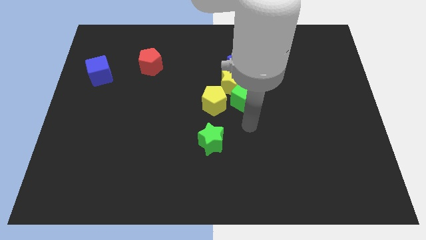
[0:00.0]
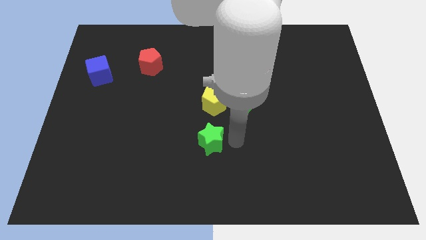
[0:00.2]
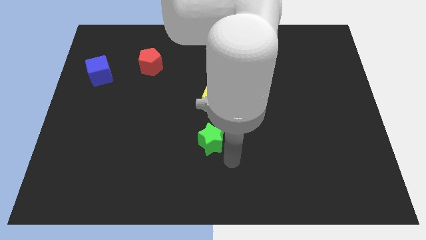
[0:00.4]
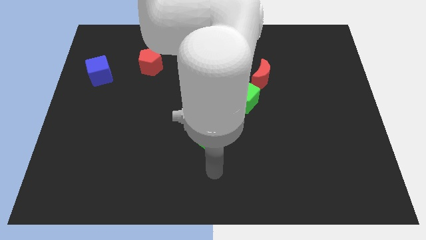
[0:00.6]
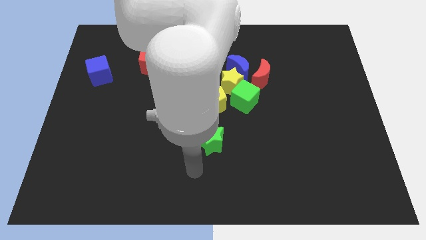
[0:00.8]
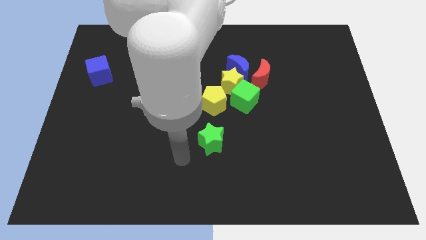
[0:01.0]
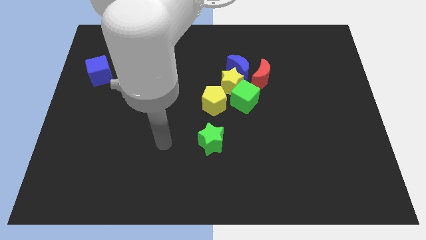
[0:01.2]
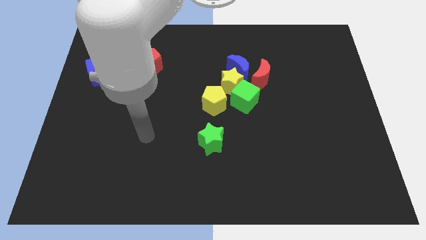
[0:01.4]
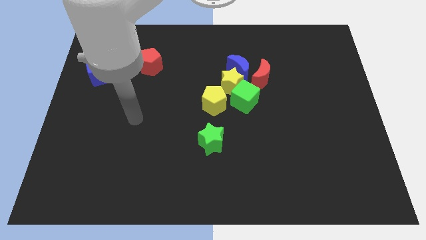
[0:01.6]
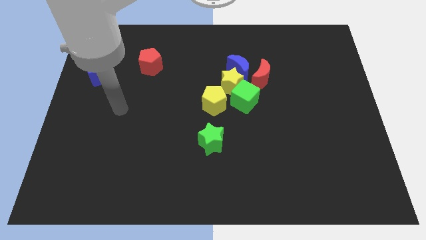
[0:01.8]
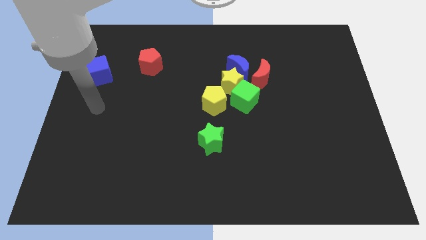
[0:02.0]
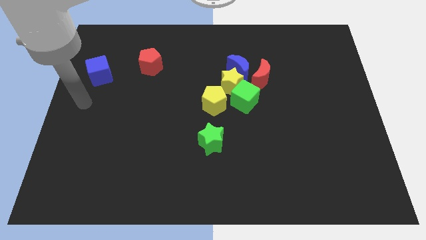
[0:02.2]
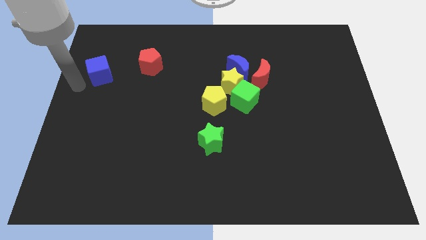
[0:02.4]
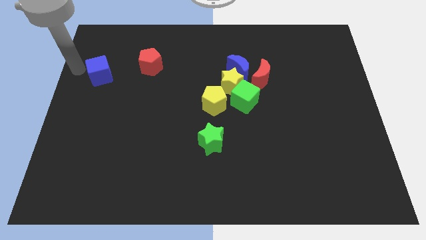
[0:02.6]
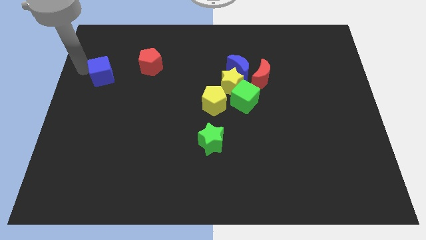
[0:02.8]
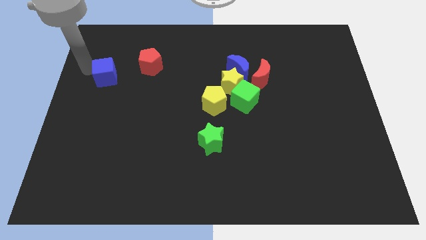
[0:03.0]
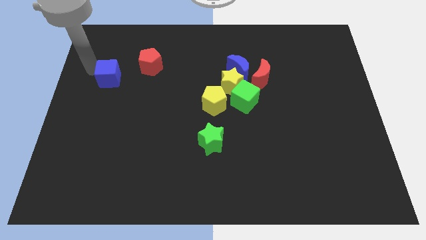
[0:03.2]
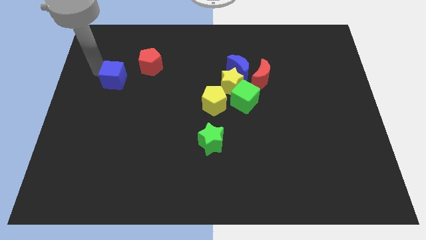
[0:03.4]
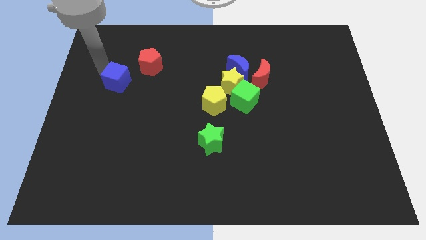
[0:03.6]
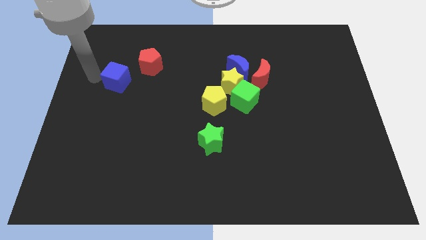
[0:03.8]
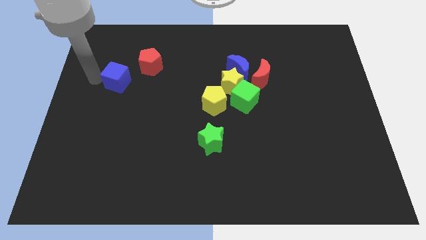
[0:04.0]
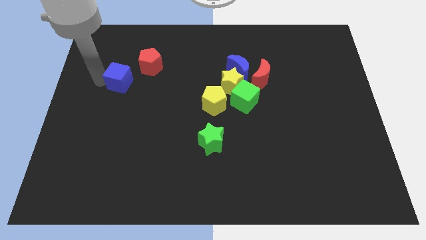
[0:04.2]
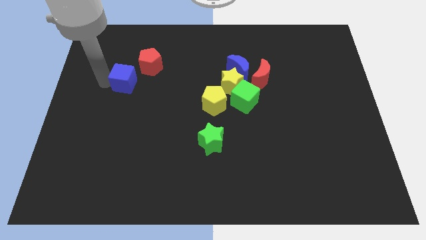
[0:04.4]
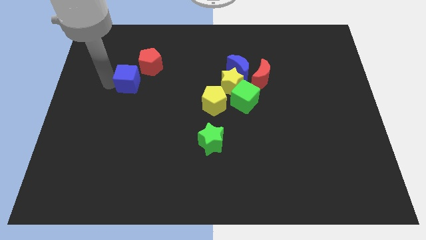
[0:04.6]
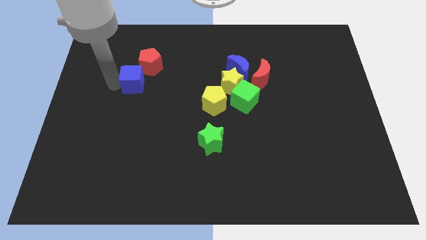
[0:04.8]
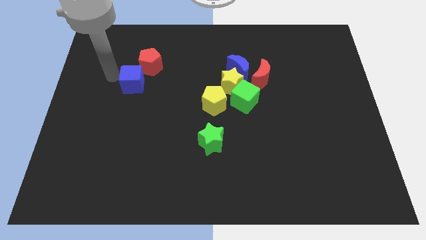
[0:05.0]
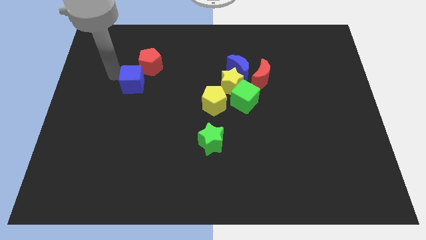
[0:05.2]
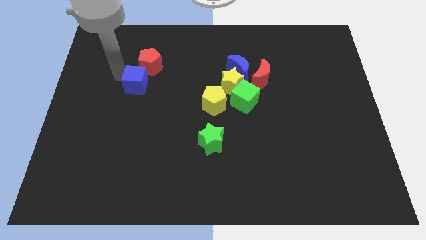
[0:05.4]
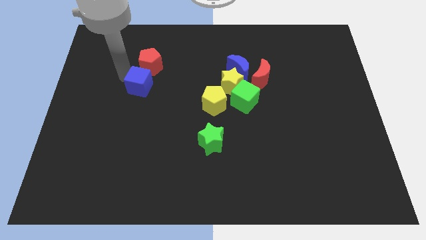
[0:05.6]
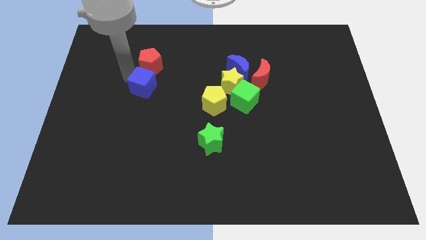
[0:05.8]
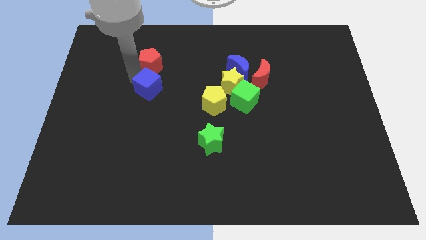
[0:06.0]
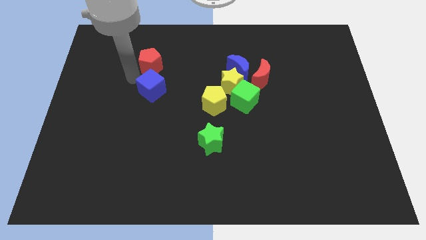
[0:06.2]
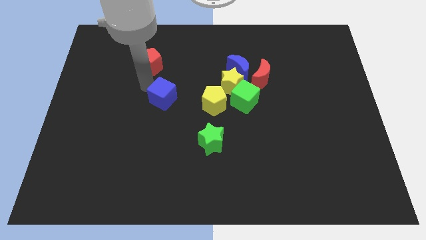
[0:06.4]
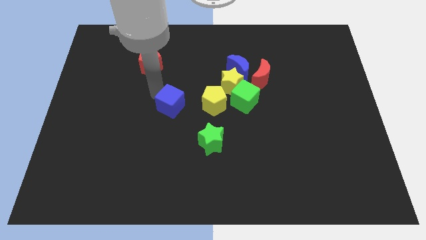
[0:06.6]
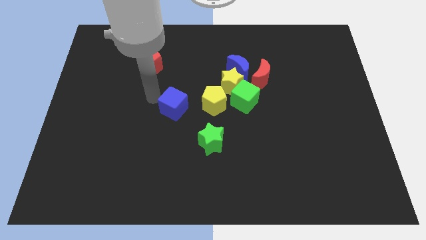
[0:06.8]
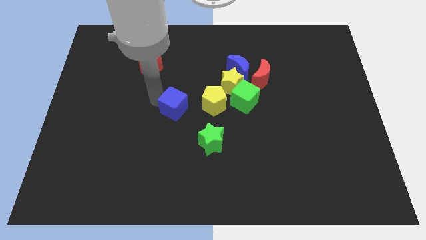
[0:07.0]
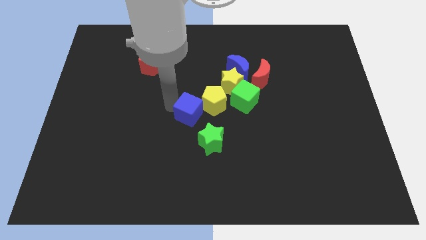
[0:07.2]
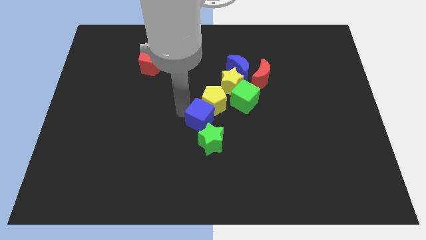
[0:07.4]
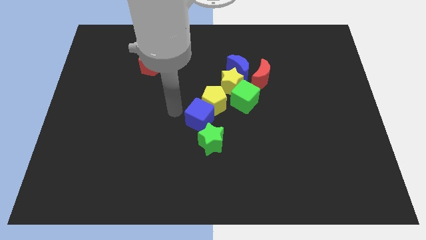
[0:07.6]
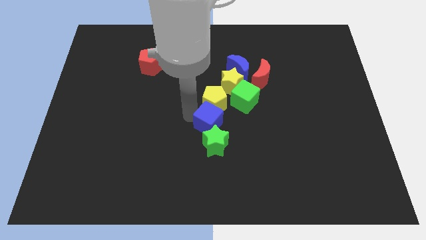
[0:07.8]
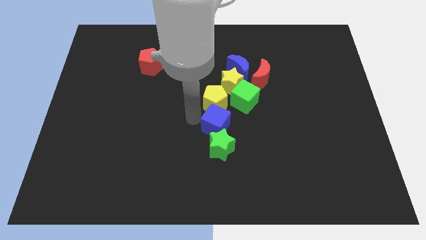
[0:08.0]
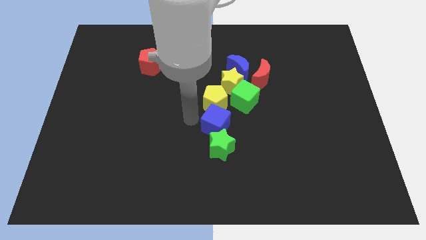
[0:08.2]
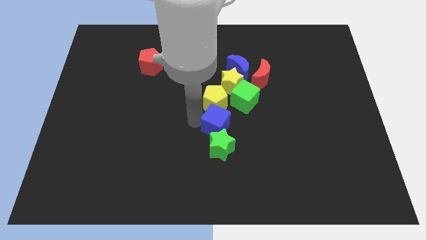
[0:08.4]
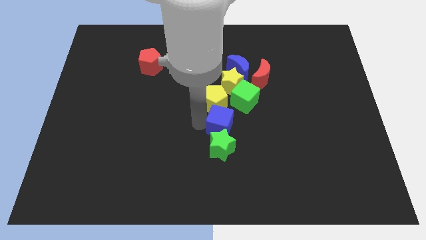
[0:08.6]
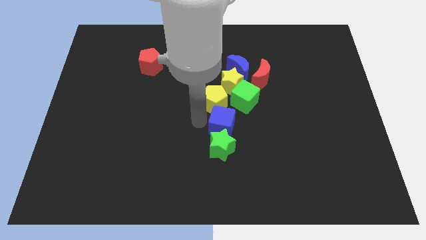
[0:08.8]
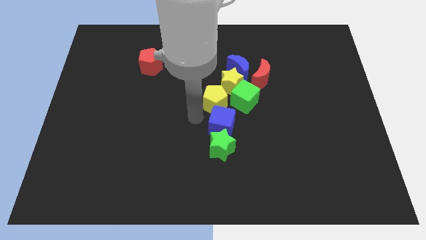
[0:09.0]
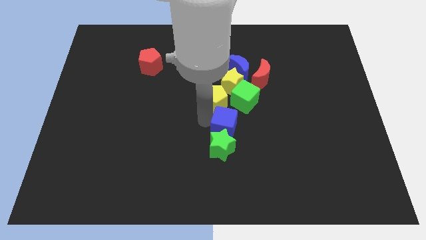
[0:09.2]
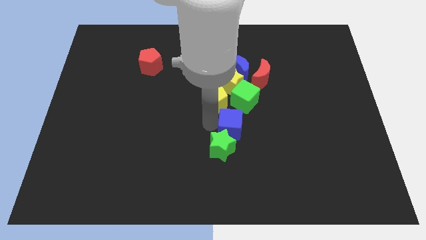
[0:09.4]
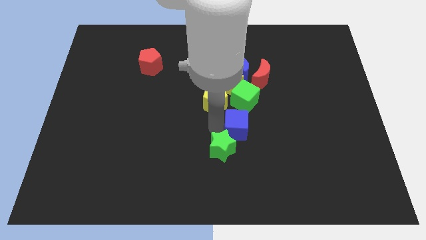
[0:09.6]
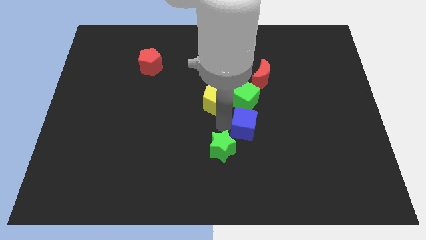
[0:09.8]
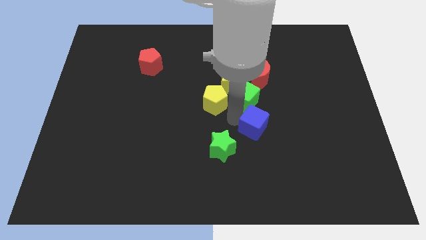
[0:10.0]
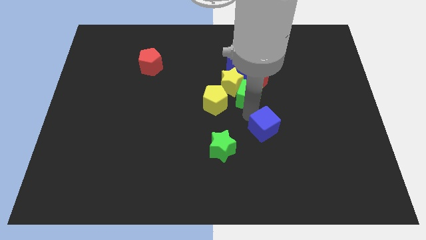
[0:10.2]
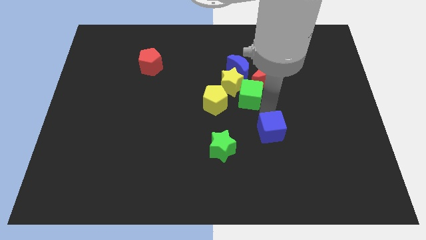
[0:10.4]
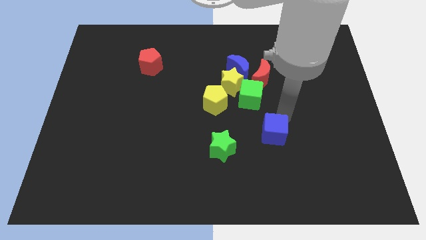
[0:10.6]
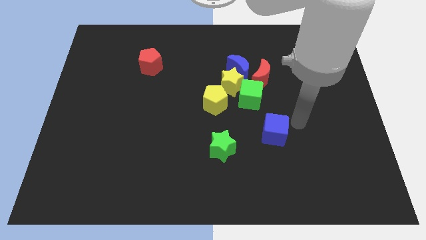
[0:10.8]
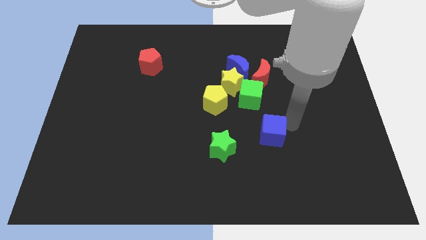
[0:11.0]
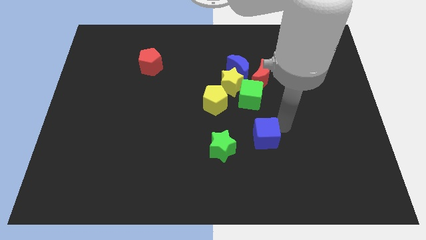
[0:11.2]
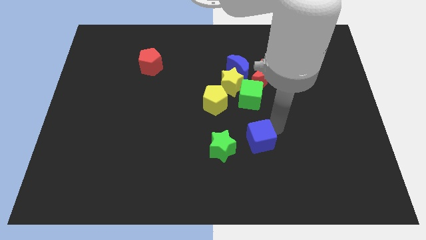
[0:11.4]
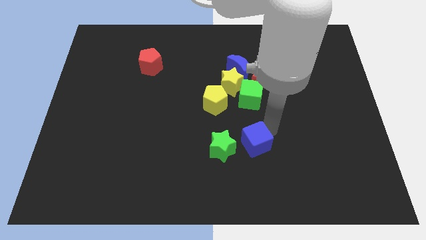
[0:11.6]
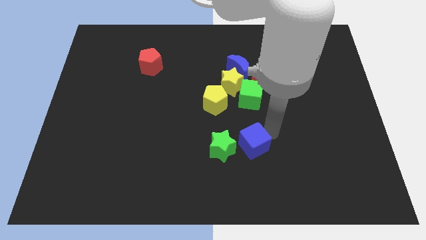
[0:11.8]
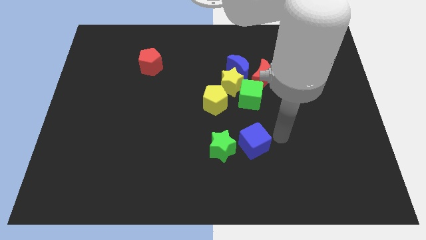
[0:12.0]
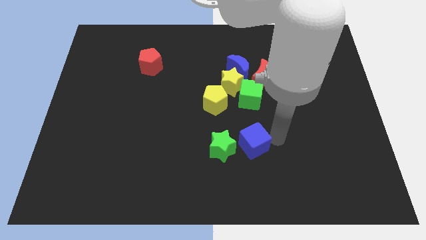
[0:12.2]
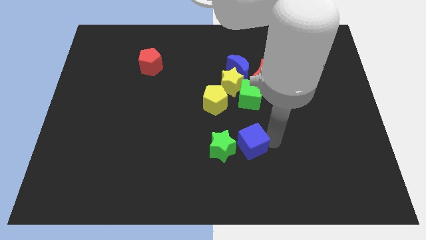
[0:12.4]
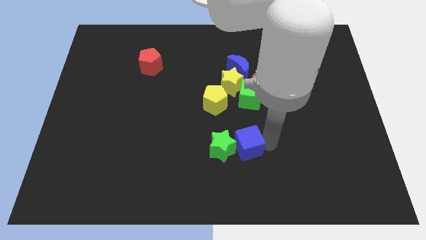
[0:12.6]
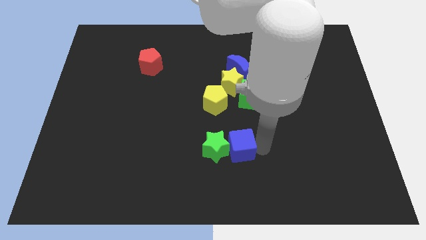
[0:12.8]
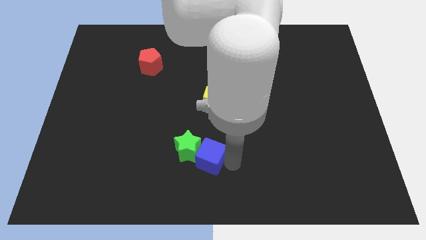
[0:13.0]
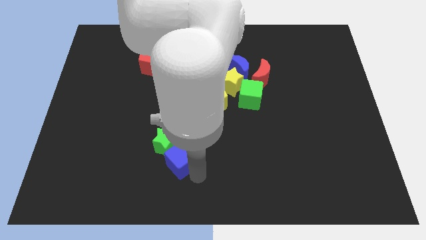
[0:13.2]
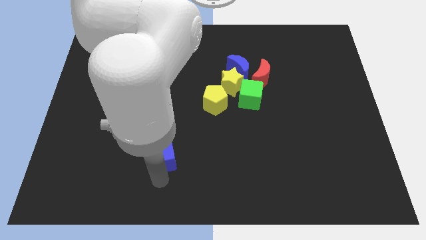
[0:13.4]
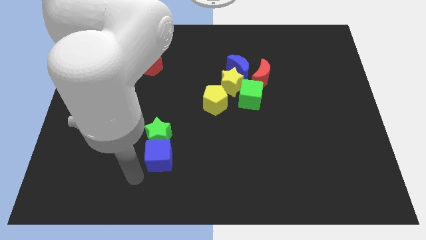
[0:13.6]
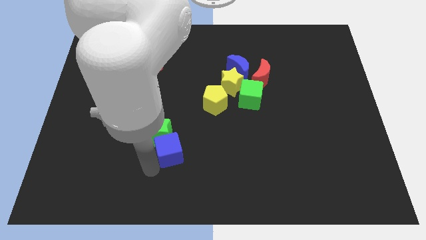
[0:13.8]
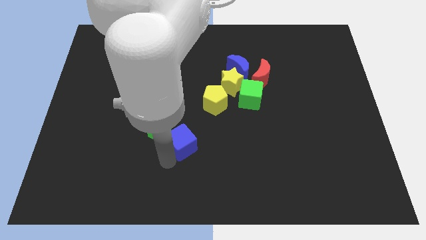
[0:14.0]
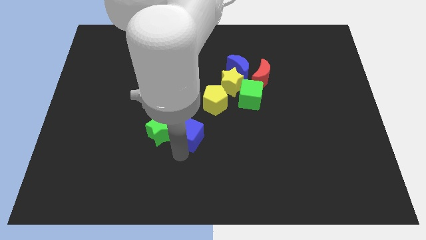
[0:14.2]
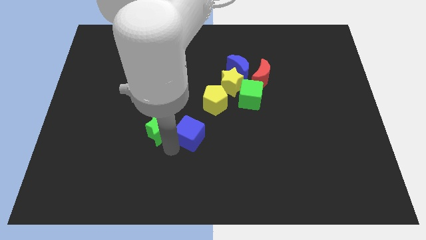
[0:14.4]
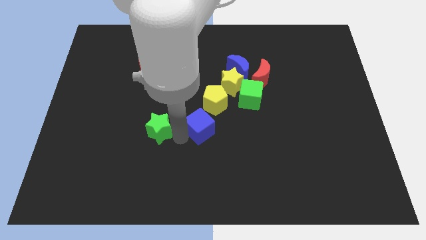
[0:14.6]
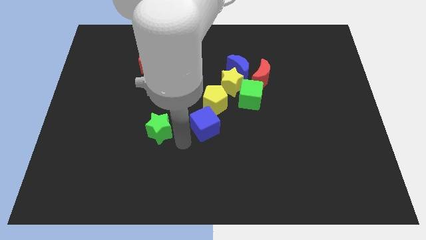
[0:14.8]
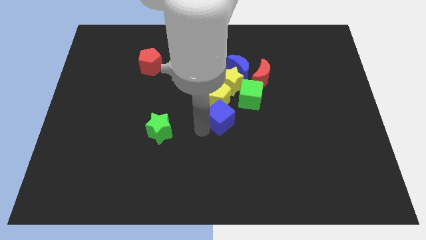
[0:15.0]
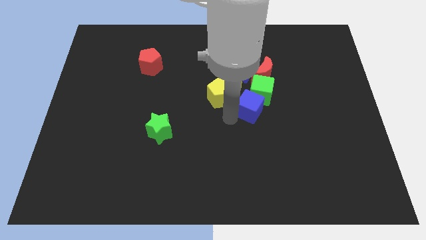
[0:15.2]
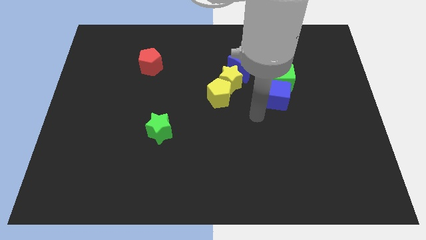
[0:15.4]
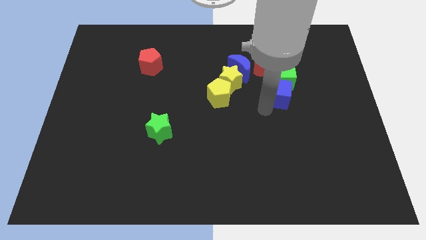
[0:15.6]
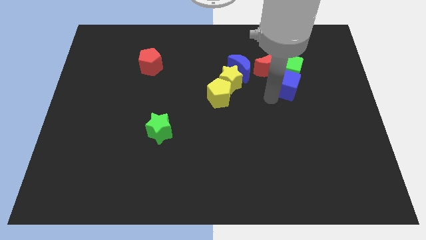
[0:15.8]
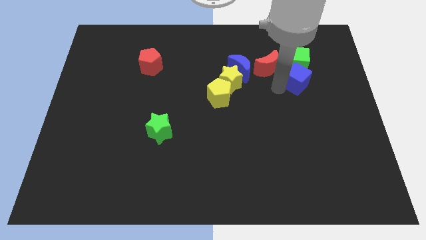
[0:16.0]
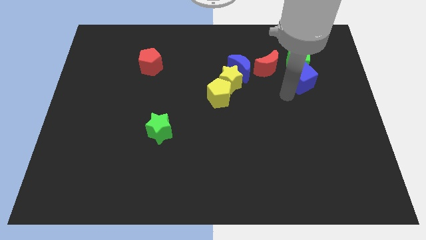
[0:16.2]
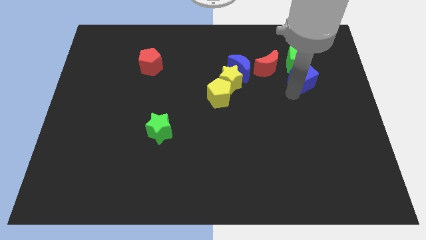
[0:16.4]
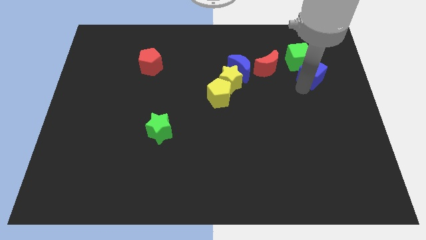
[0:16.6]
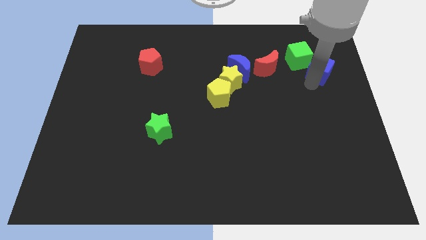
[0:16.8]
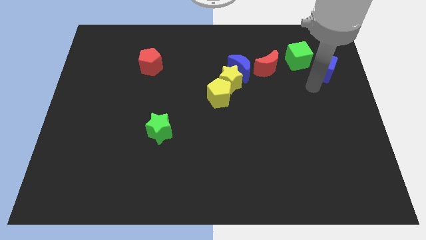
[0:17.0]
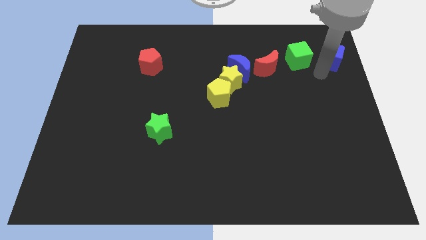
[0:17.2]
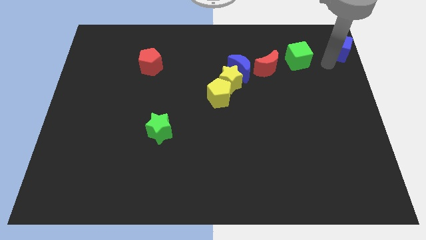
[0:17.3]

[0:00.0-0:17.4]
slide the blue cube to the top right
